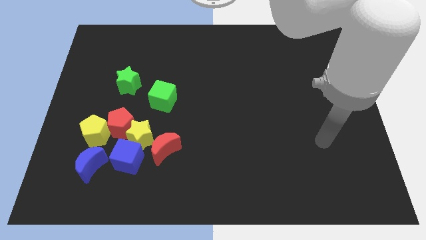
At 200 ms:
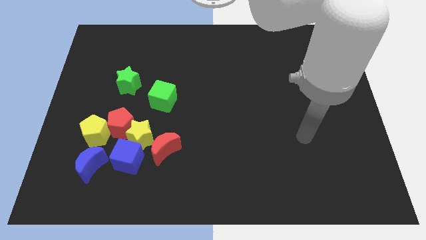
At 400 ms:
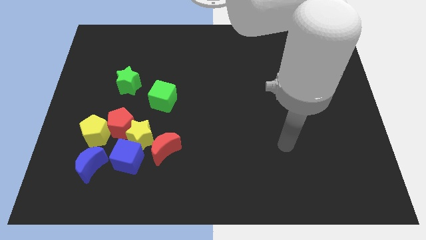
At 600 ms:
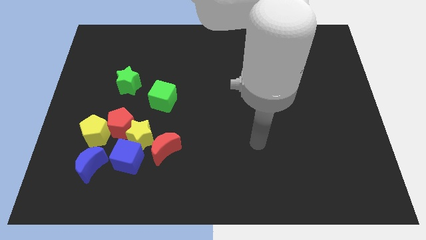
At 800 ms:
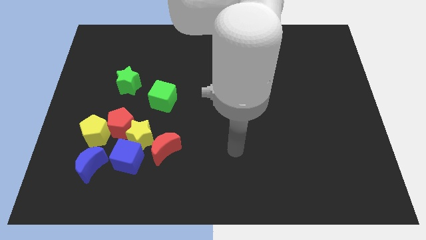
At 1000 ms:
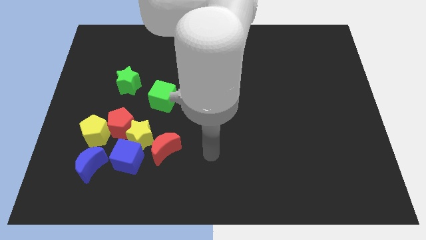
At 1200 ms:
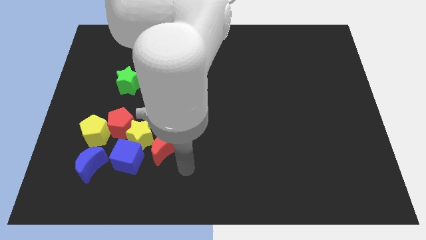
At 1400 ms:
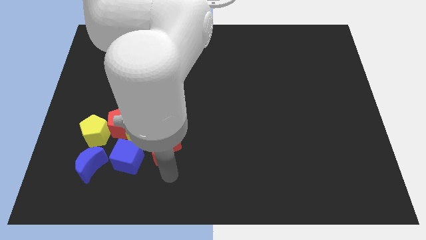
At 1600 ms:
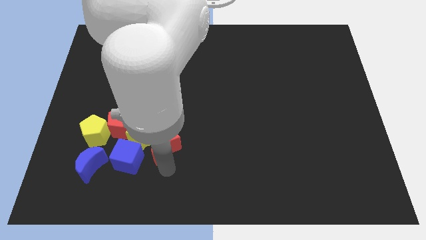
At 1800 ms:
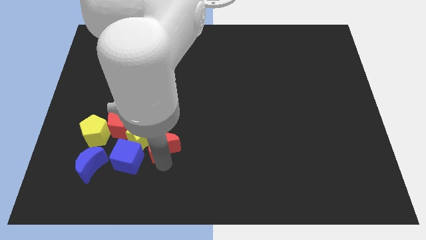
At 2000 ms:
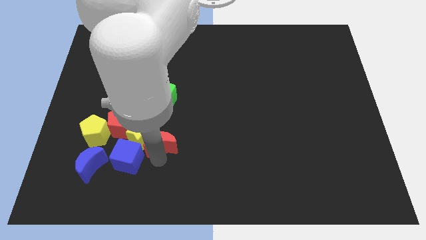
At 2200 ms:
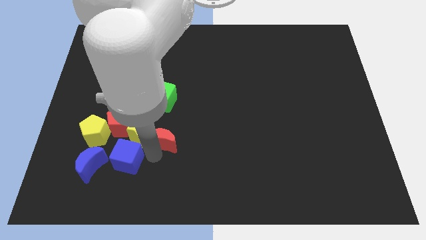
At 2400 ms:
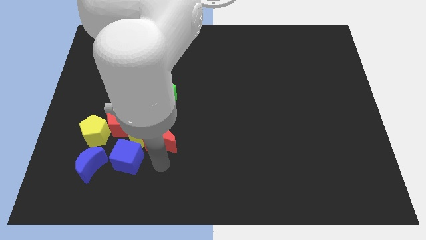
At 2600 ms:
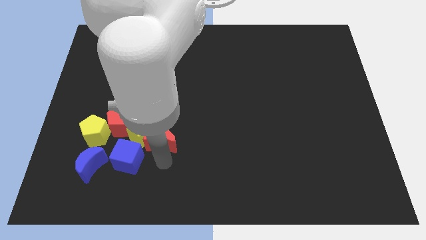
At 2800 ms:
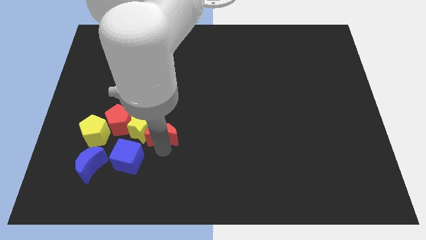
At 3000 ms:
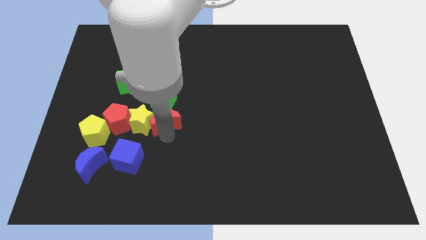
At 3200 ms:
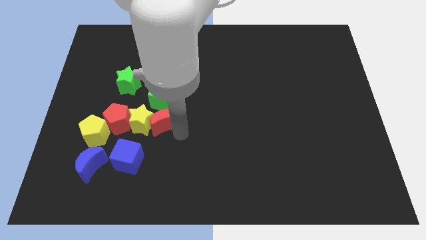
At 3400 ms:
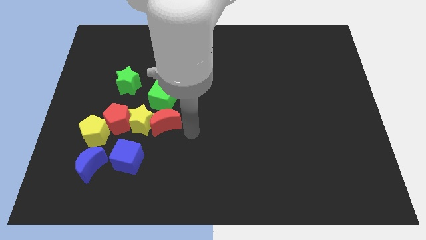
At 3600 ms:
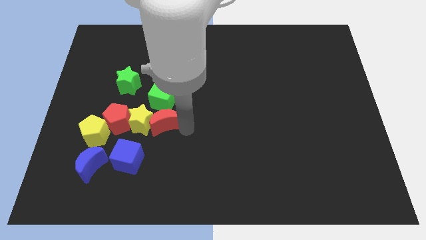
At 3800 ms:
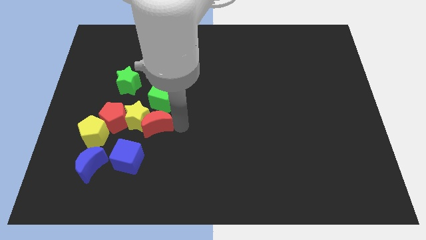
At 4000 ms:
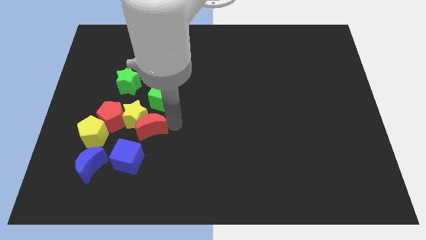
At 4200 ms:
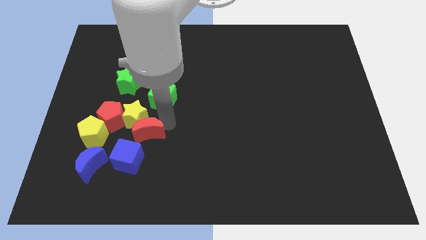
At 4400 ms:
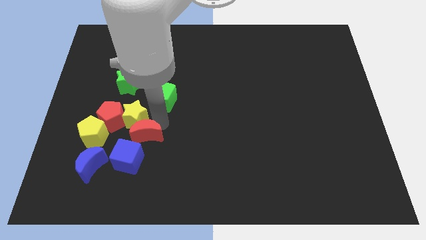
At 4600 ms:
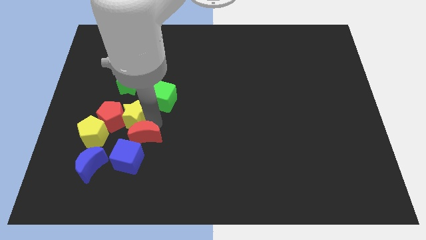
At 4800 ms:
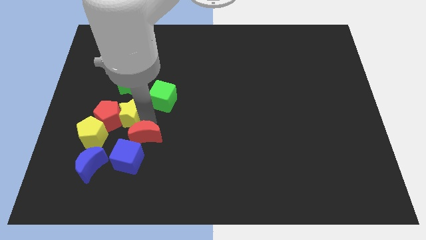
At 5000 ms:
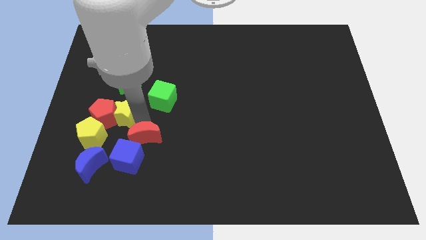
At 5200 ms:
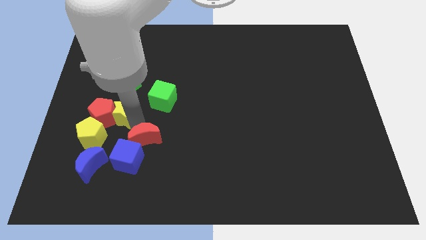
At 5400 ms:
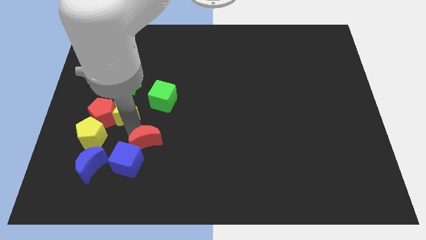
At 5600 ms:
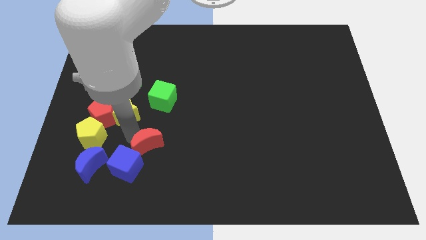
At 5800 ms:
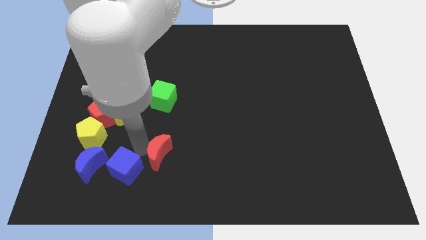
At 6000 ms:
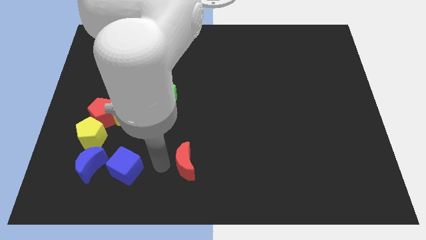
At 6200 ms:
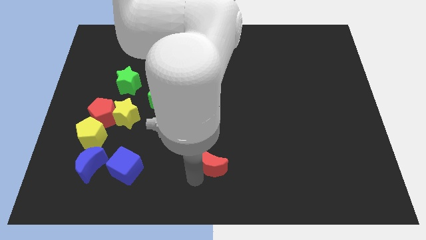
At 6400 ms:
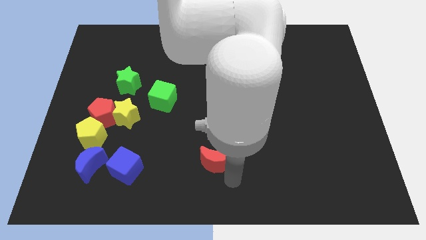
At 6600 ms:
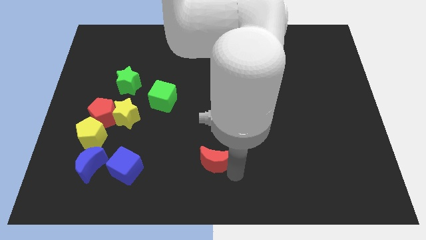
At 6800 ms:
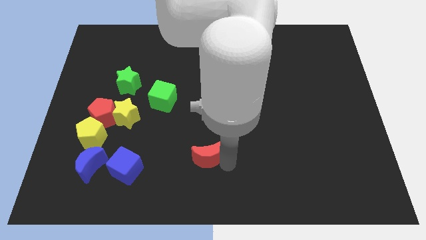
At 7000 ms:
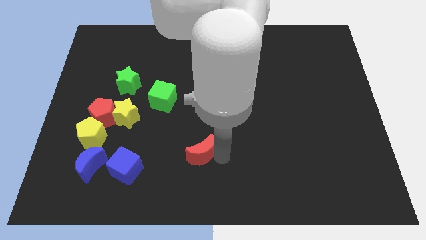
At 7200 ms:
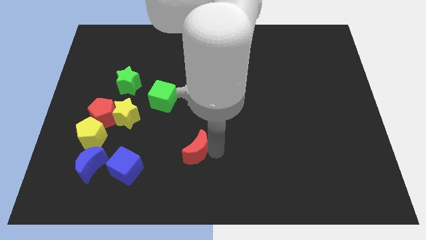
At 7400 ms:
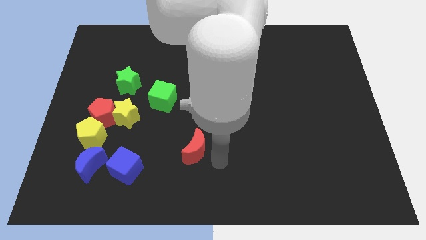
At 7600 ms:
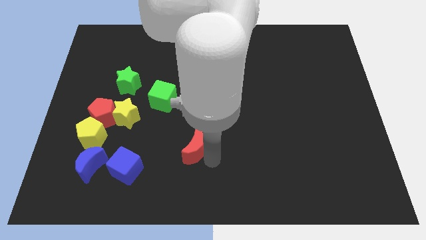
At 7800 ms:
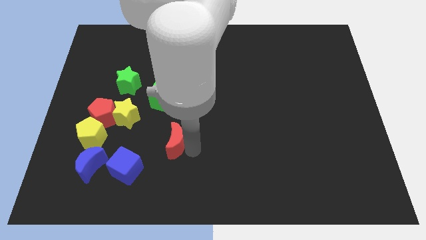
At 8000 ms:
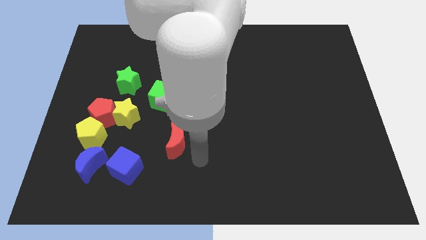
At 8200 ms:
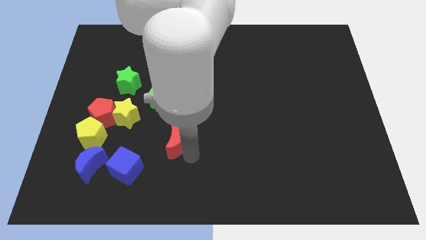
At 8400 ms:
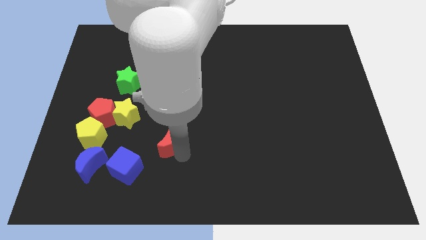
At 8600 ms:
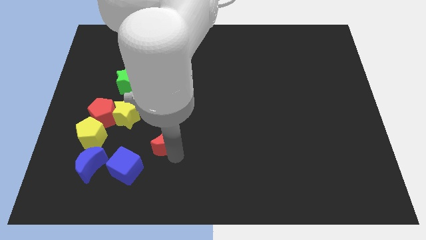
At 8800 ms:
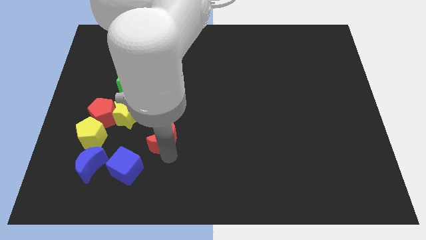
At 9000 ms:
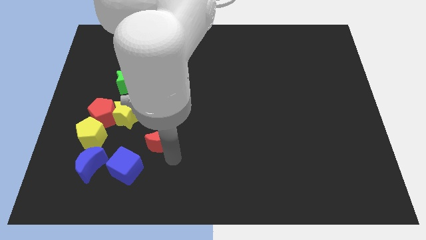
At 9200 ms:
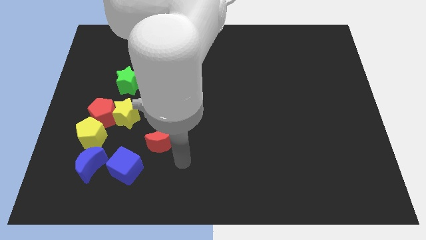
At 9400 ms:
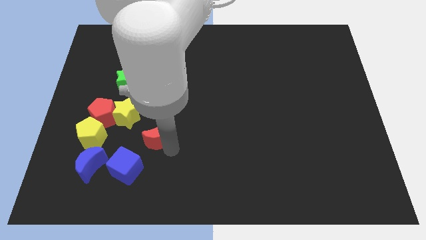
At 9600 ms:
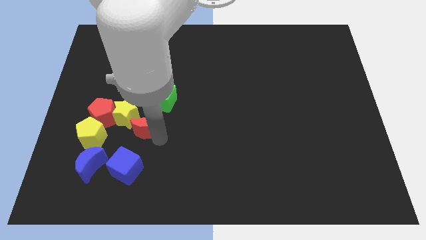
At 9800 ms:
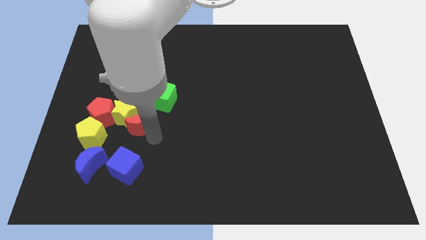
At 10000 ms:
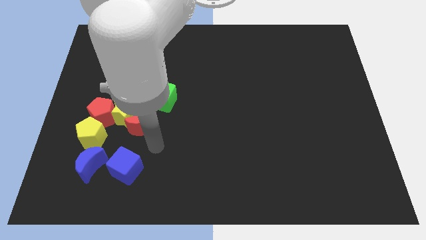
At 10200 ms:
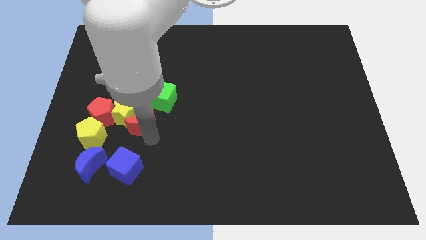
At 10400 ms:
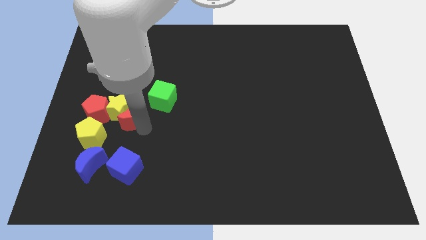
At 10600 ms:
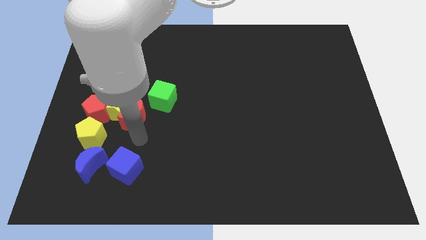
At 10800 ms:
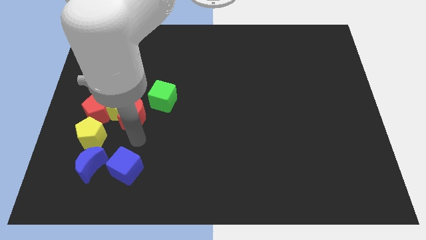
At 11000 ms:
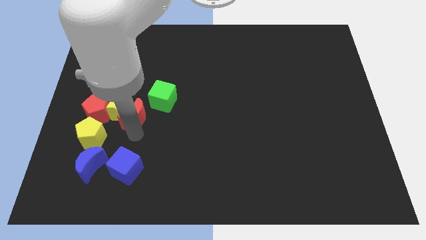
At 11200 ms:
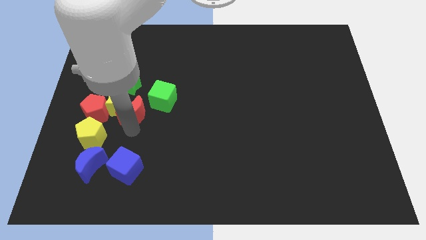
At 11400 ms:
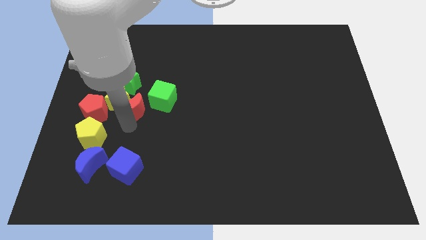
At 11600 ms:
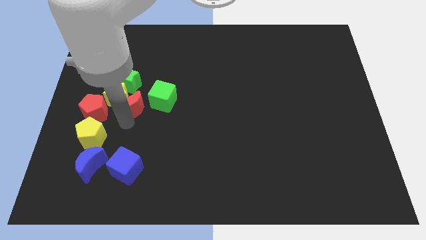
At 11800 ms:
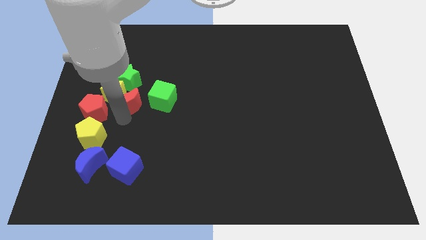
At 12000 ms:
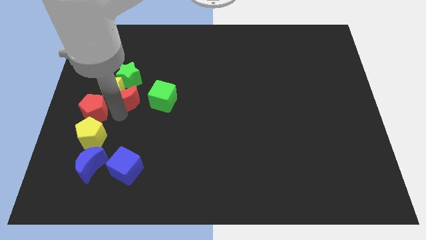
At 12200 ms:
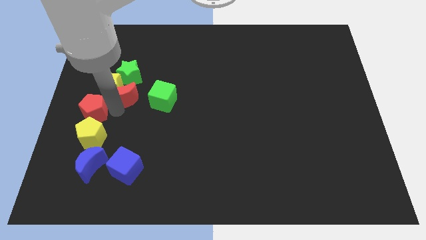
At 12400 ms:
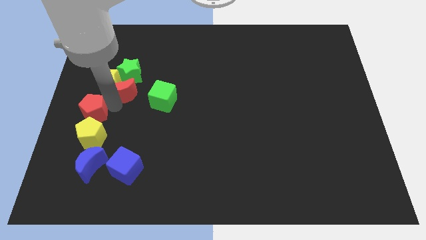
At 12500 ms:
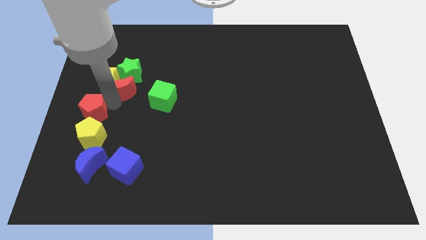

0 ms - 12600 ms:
put the red moon next to the green star
